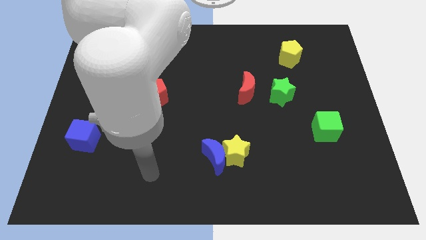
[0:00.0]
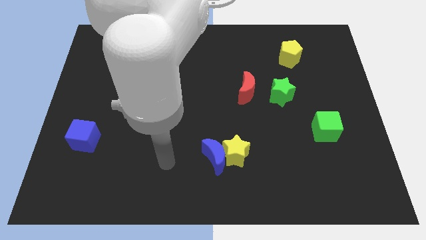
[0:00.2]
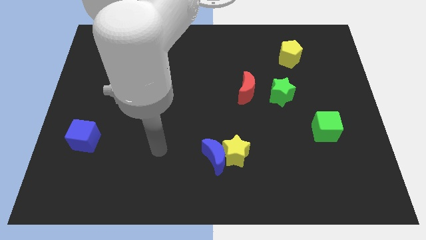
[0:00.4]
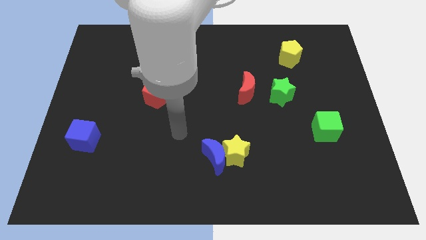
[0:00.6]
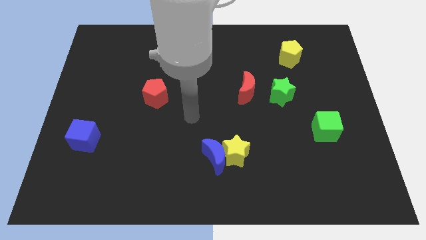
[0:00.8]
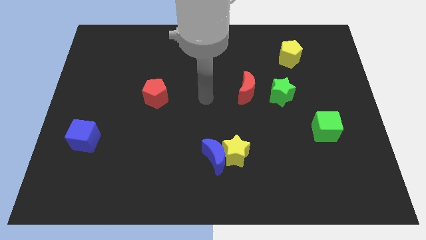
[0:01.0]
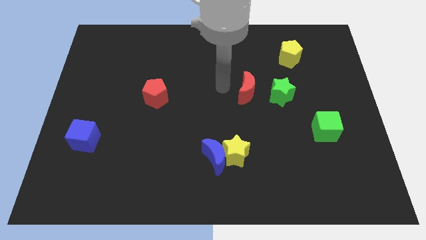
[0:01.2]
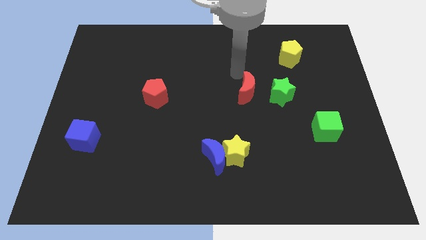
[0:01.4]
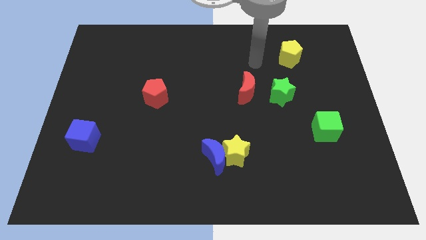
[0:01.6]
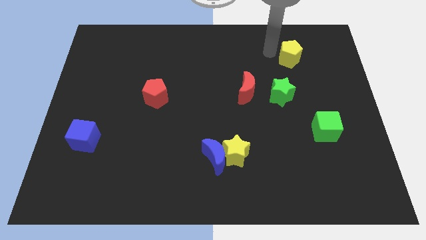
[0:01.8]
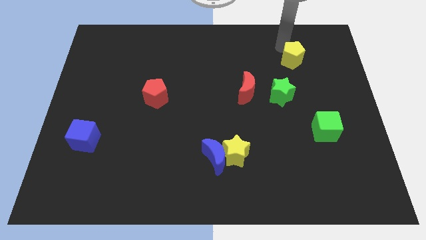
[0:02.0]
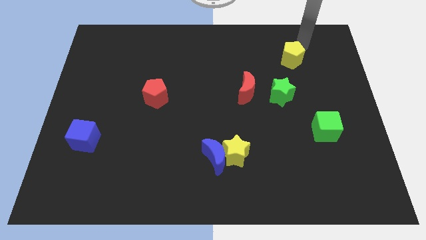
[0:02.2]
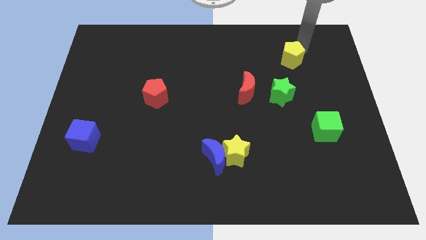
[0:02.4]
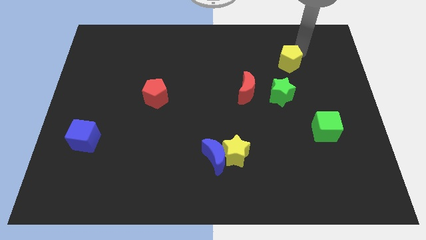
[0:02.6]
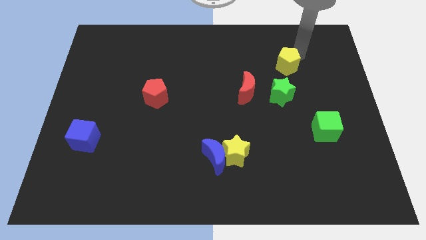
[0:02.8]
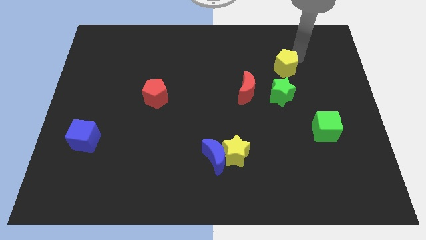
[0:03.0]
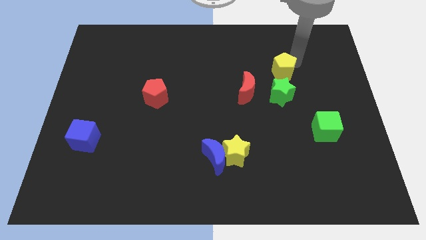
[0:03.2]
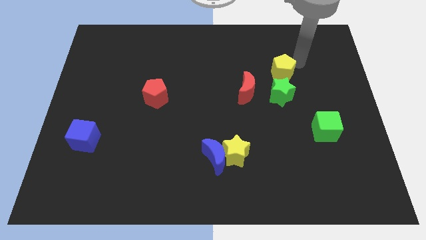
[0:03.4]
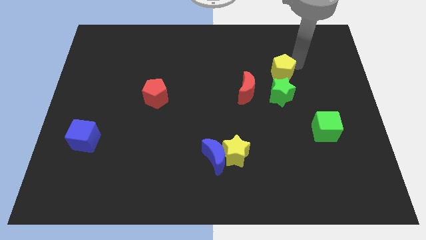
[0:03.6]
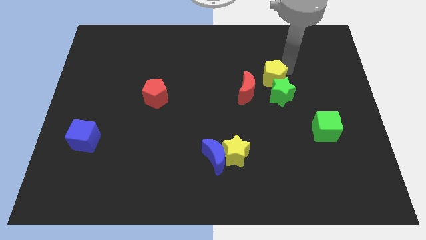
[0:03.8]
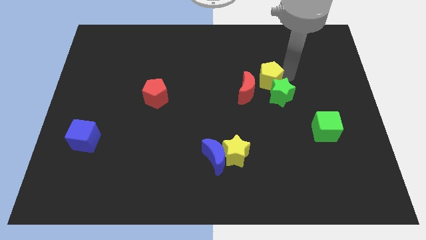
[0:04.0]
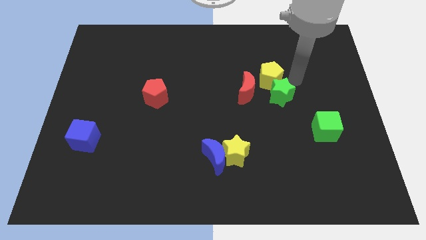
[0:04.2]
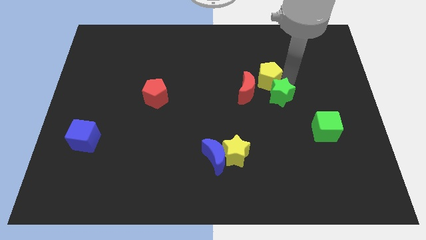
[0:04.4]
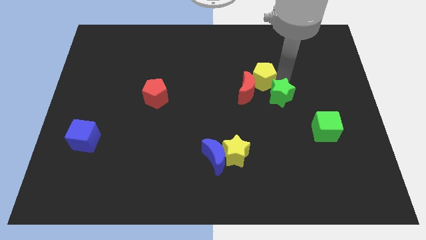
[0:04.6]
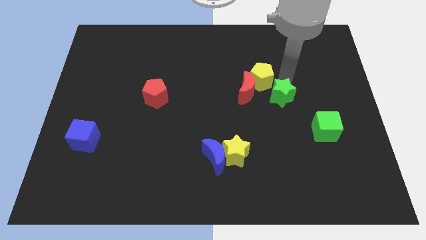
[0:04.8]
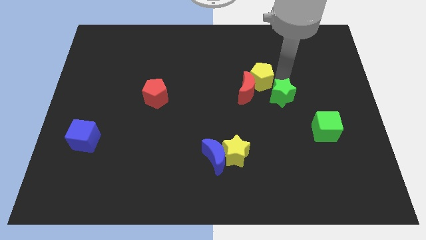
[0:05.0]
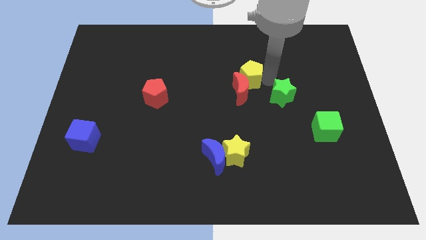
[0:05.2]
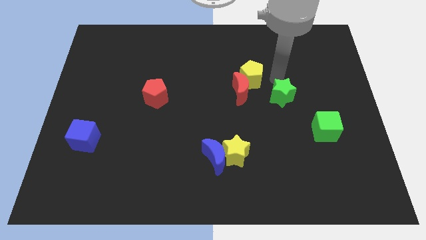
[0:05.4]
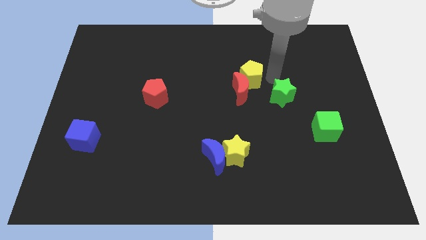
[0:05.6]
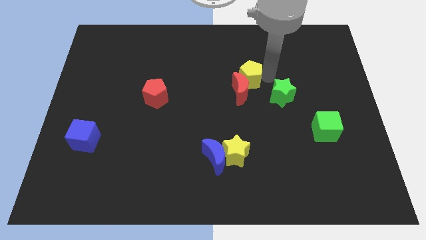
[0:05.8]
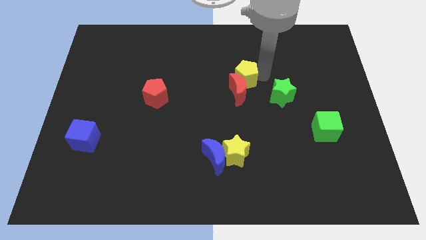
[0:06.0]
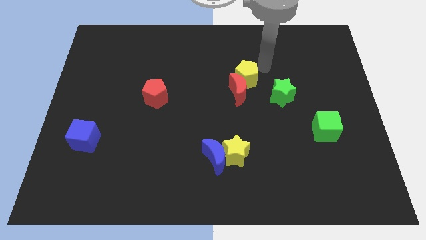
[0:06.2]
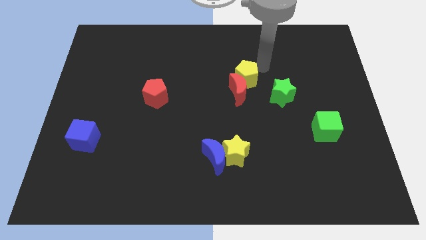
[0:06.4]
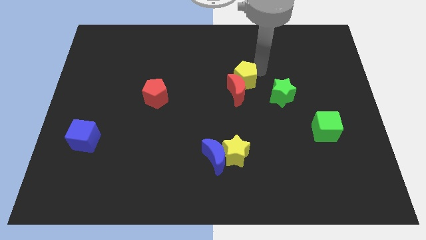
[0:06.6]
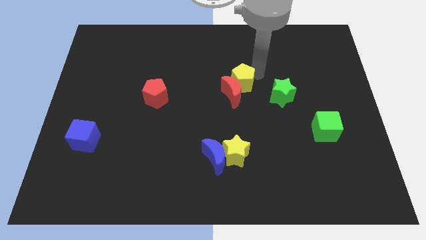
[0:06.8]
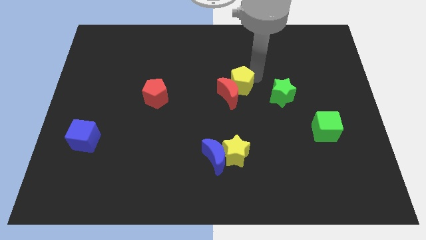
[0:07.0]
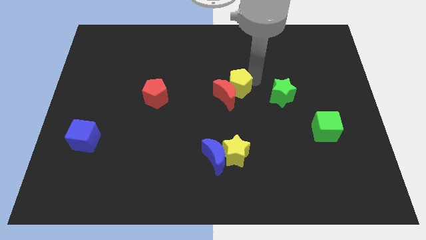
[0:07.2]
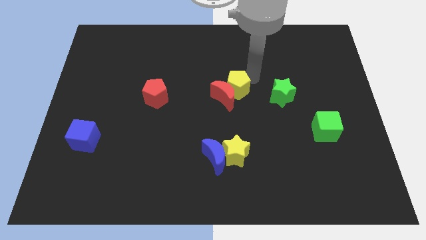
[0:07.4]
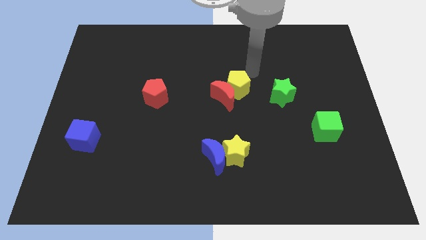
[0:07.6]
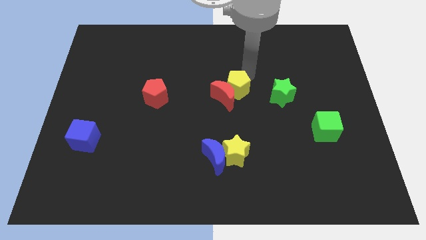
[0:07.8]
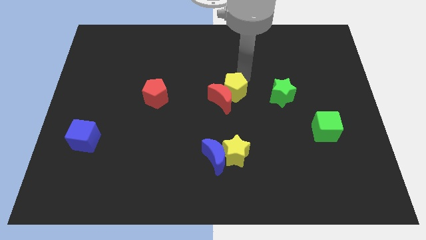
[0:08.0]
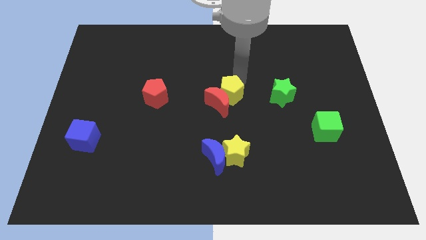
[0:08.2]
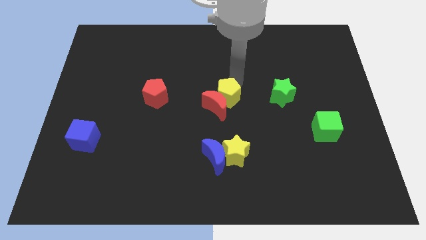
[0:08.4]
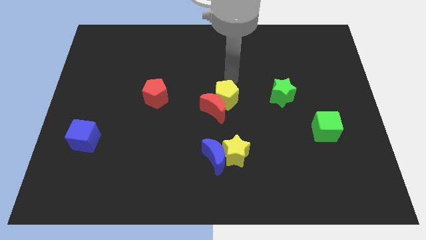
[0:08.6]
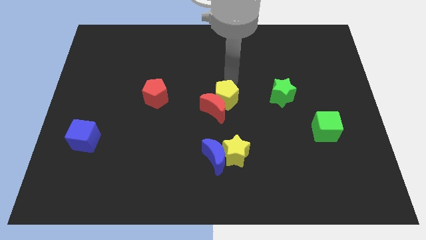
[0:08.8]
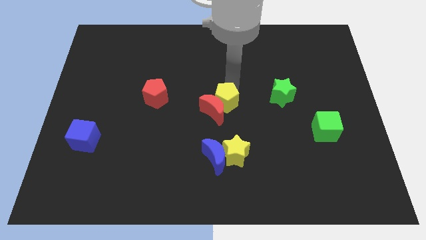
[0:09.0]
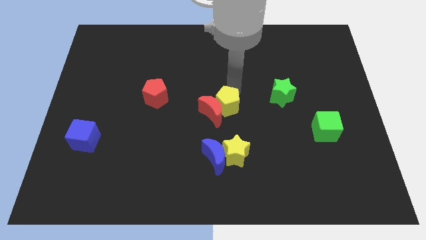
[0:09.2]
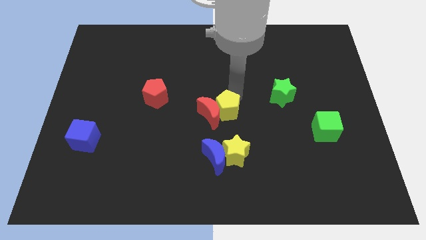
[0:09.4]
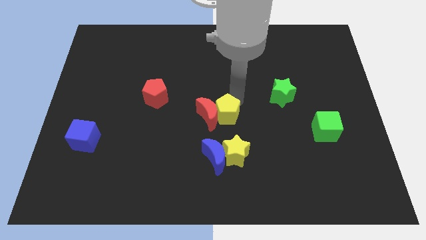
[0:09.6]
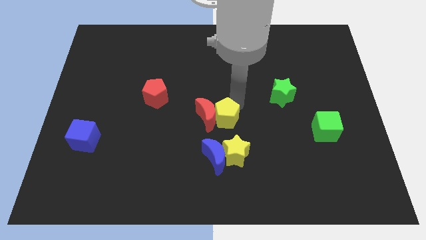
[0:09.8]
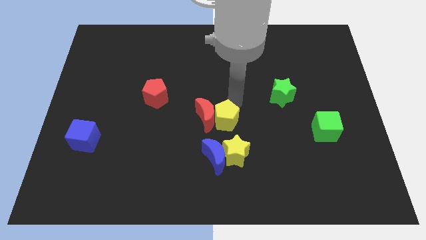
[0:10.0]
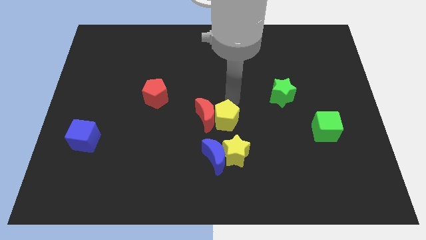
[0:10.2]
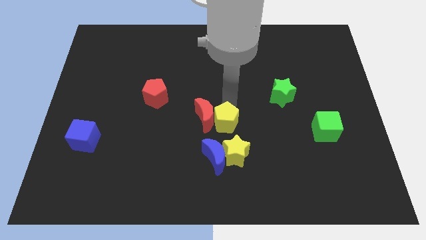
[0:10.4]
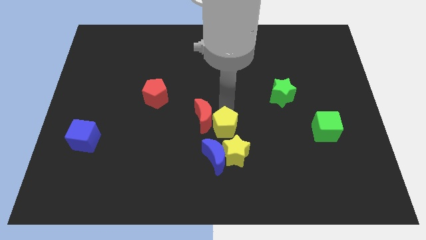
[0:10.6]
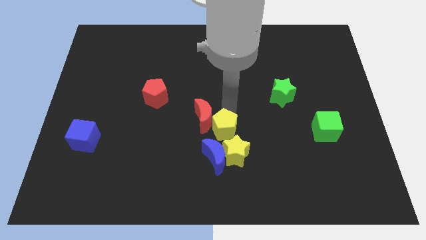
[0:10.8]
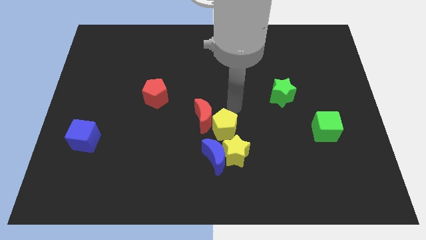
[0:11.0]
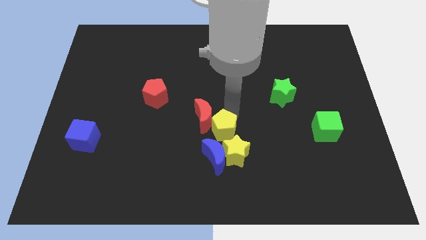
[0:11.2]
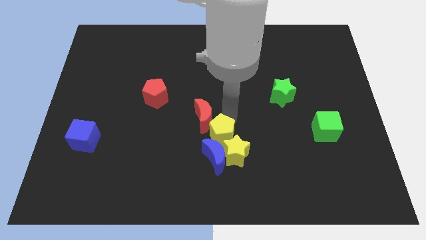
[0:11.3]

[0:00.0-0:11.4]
move the yellow pentagon close to the blue moon

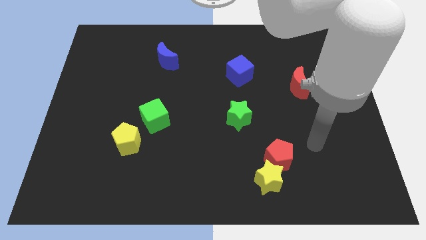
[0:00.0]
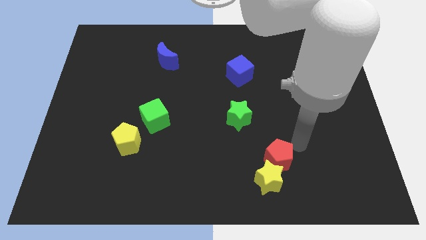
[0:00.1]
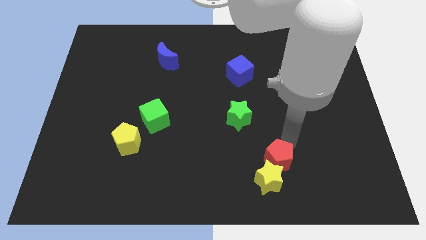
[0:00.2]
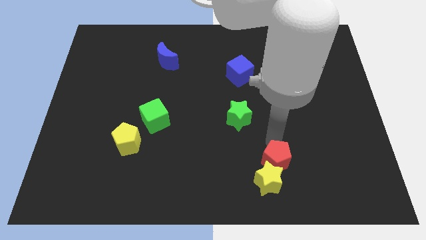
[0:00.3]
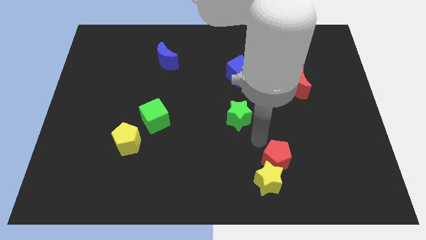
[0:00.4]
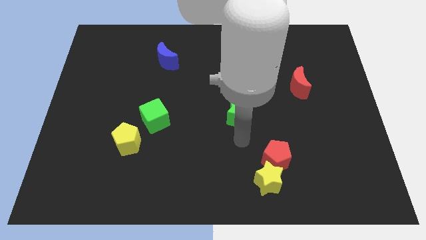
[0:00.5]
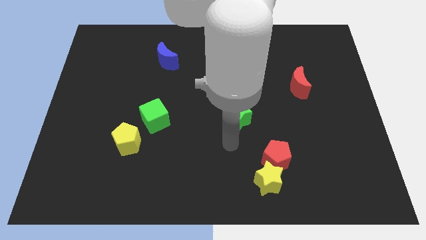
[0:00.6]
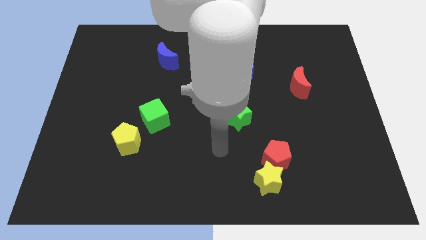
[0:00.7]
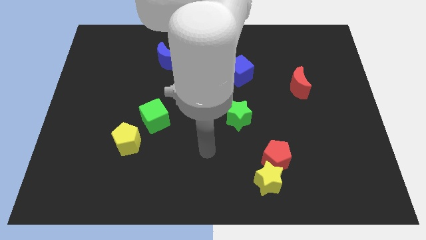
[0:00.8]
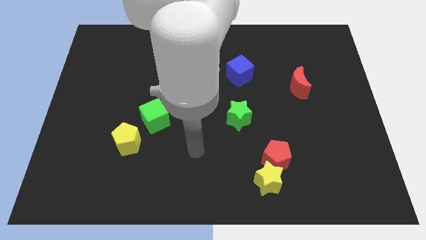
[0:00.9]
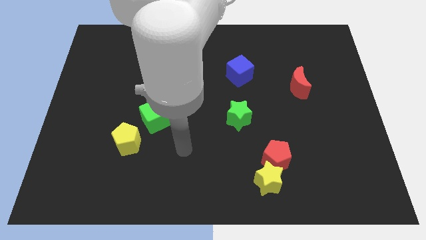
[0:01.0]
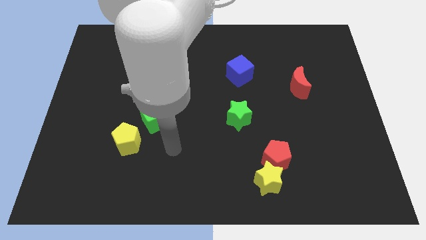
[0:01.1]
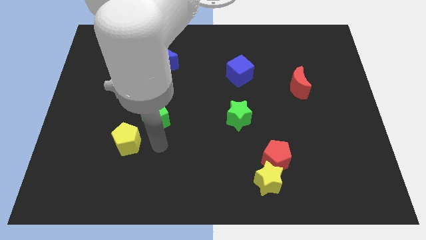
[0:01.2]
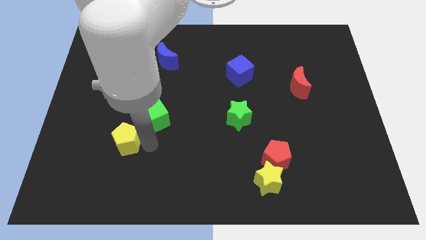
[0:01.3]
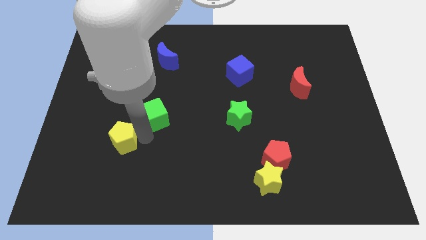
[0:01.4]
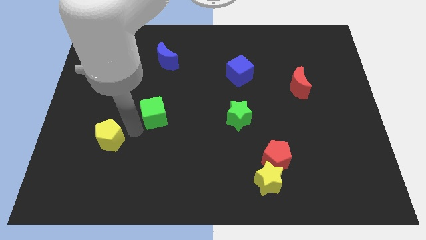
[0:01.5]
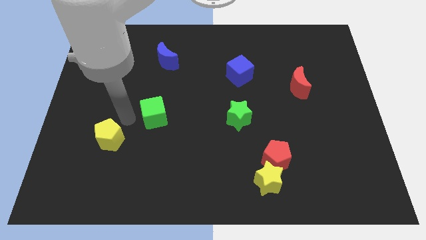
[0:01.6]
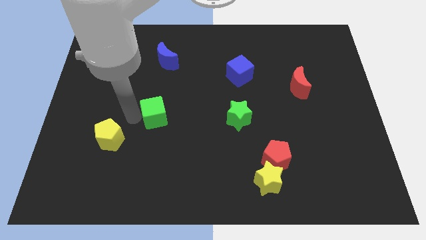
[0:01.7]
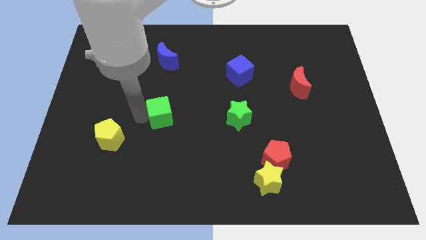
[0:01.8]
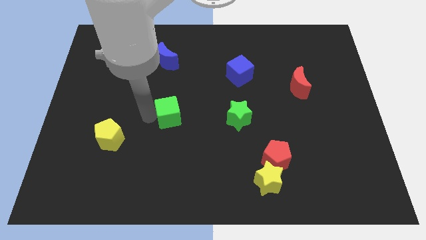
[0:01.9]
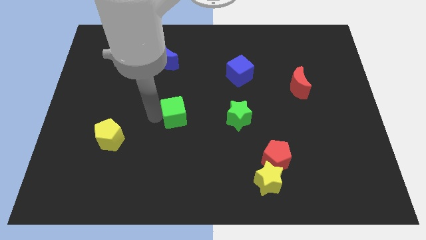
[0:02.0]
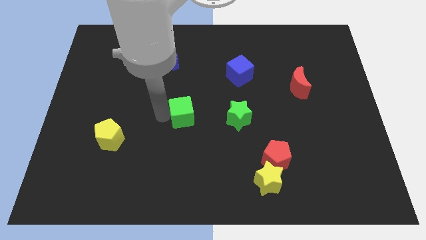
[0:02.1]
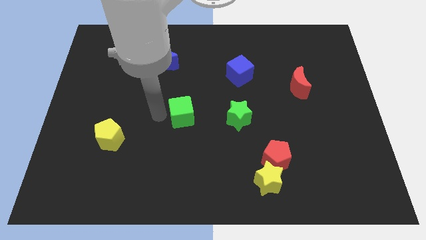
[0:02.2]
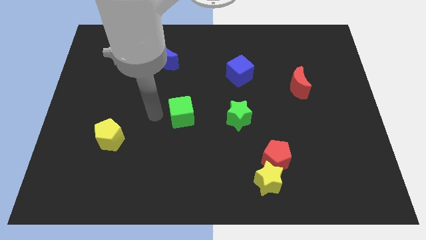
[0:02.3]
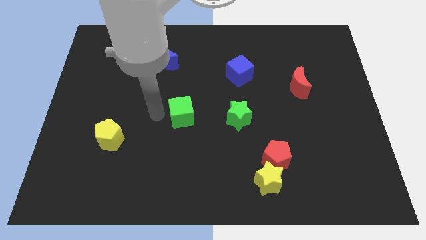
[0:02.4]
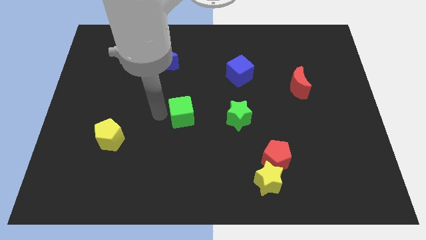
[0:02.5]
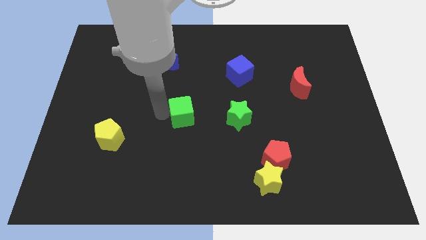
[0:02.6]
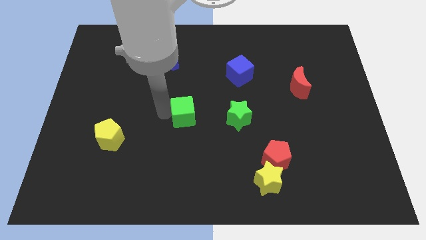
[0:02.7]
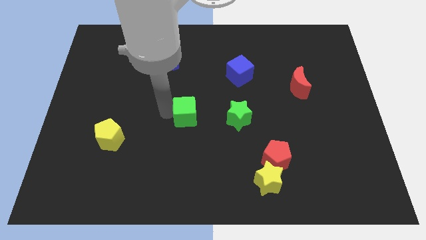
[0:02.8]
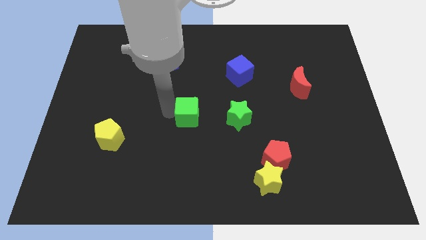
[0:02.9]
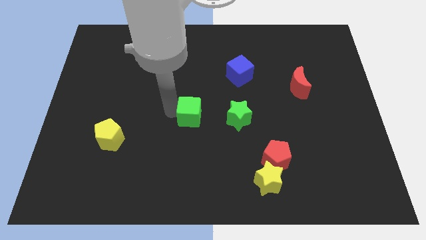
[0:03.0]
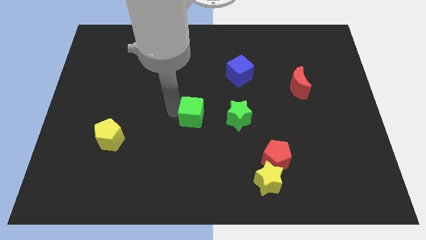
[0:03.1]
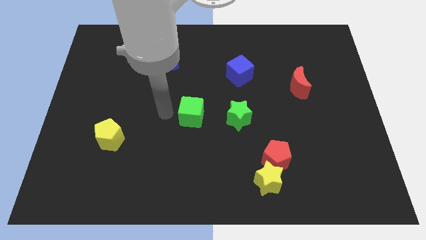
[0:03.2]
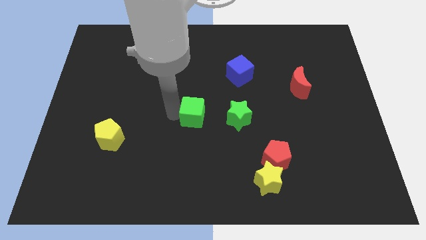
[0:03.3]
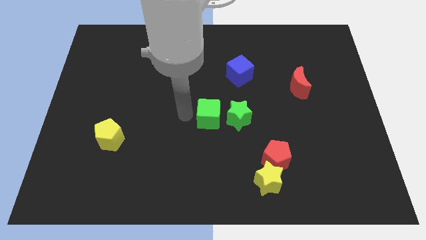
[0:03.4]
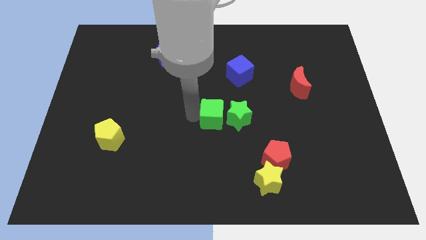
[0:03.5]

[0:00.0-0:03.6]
move the green cube towards the green star
